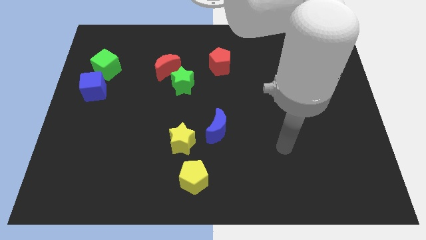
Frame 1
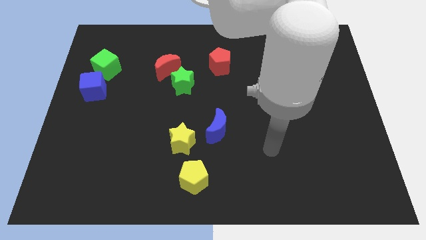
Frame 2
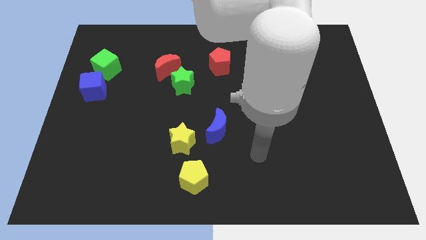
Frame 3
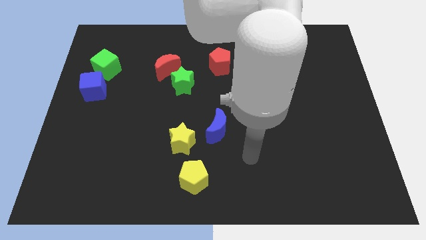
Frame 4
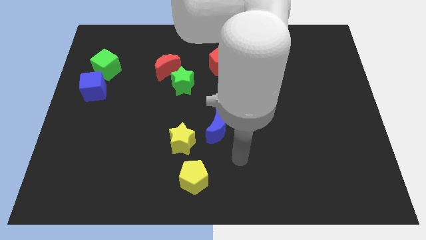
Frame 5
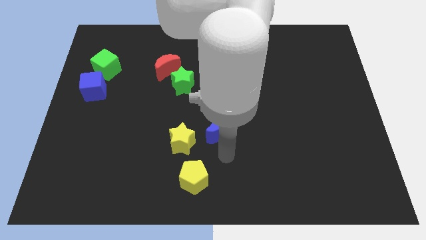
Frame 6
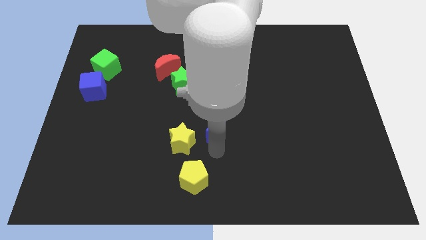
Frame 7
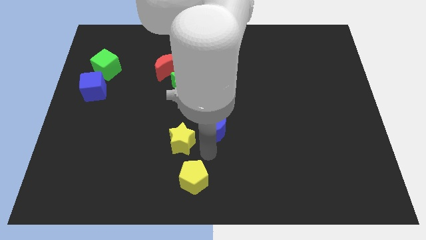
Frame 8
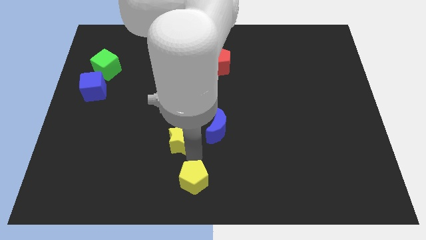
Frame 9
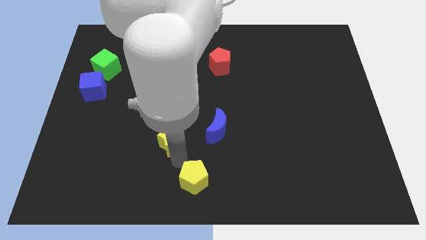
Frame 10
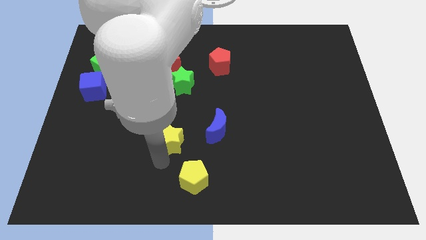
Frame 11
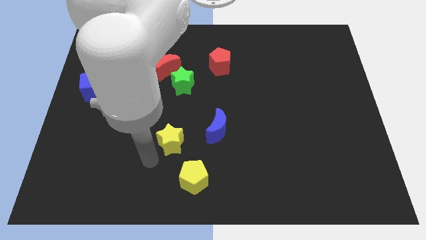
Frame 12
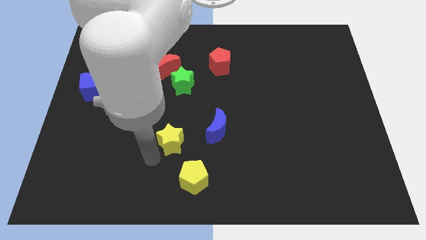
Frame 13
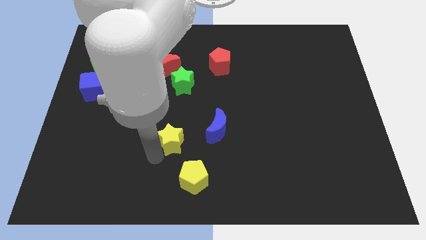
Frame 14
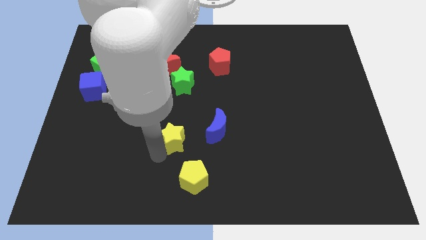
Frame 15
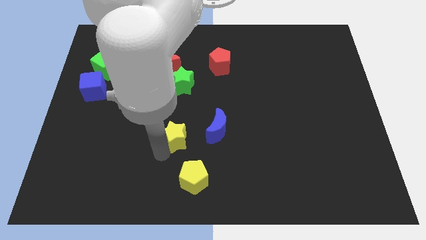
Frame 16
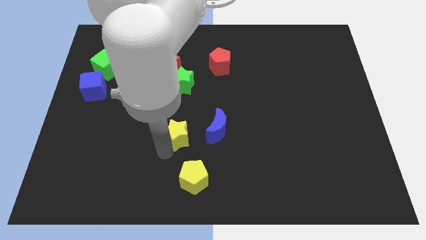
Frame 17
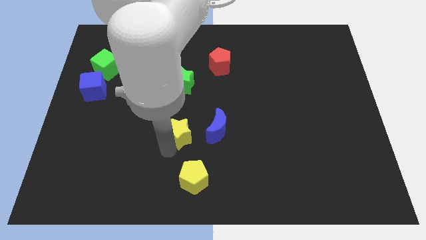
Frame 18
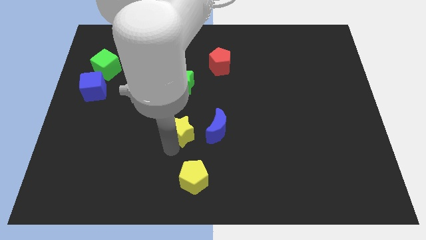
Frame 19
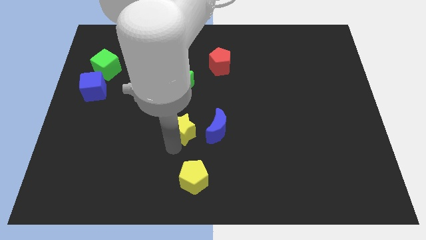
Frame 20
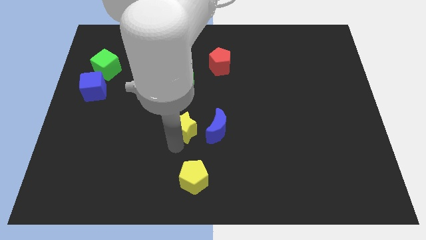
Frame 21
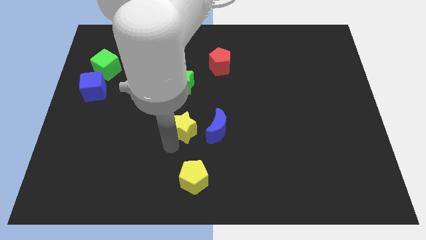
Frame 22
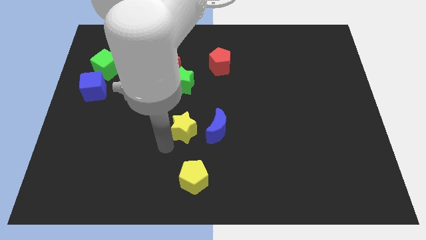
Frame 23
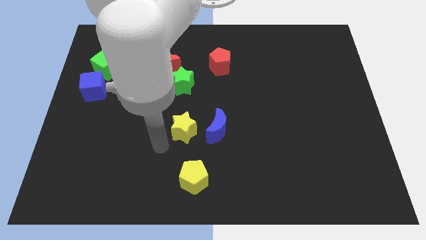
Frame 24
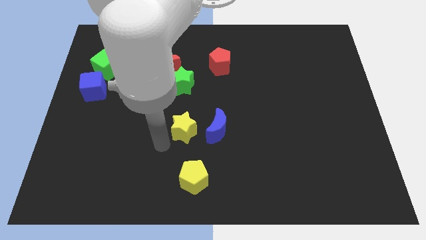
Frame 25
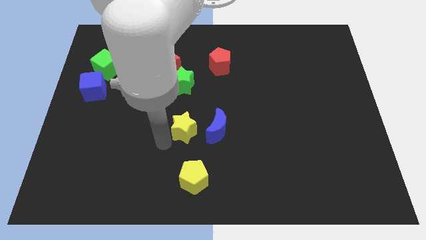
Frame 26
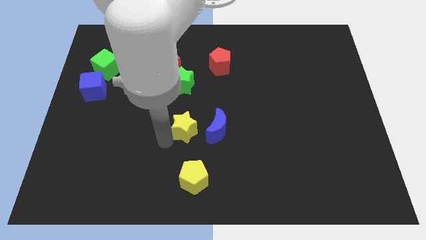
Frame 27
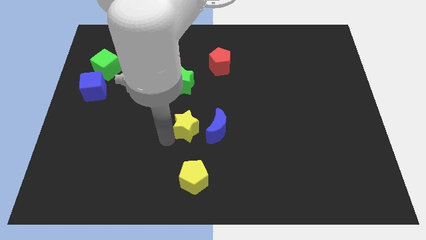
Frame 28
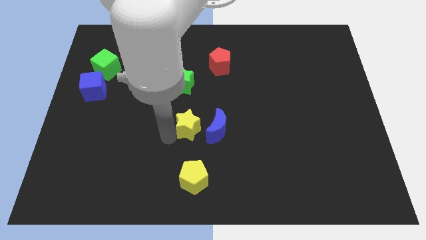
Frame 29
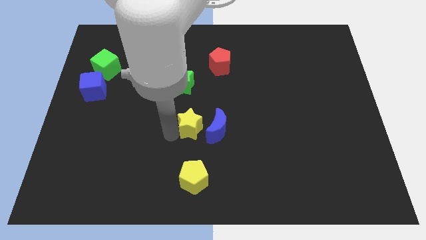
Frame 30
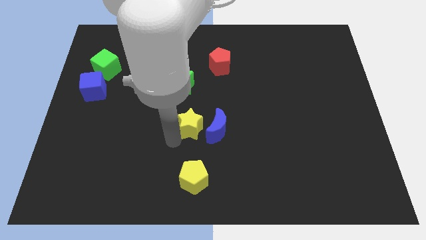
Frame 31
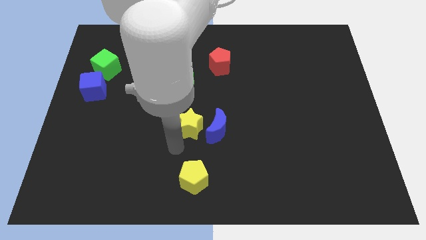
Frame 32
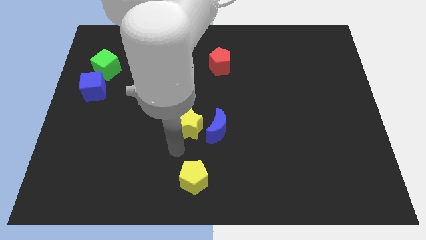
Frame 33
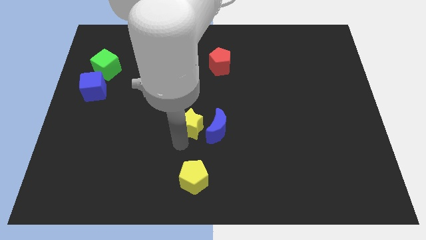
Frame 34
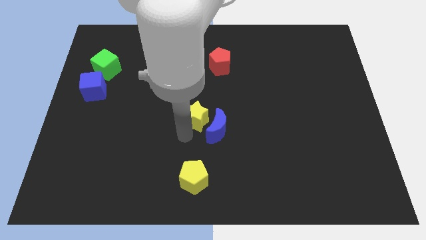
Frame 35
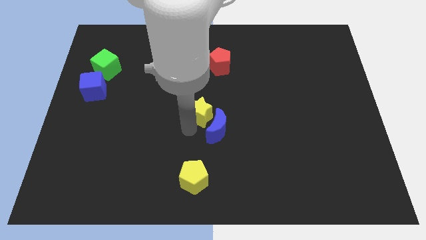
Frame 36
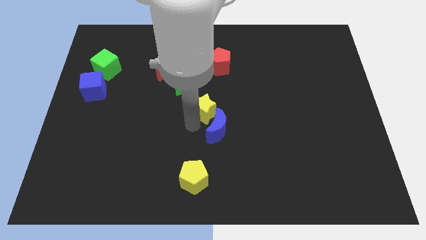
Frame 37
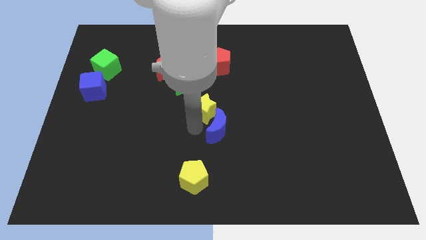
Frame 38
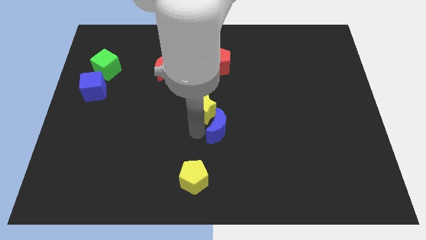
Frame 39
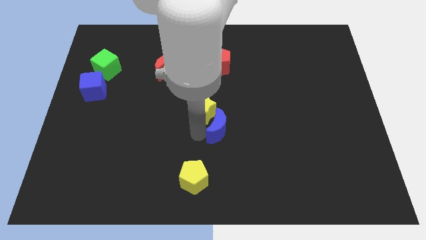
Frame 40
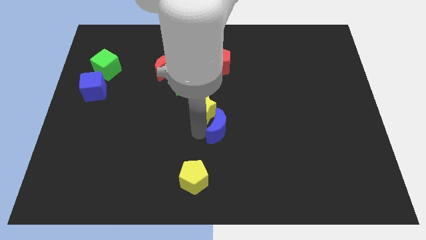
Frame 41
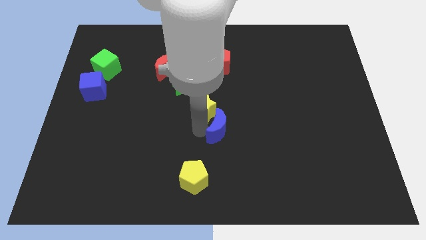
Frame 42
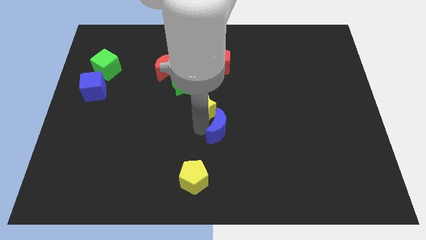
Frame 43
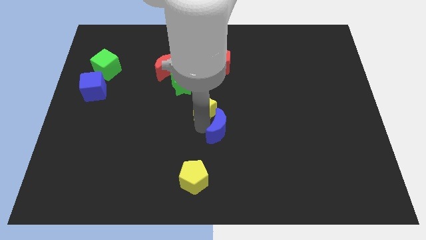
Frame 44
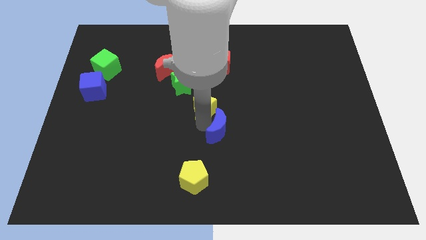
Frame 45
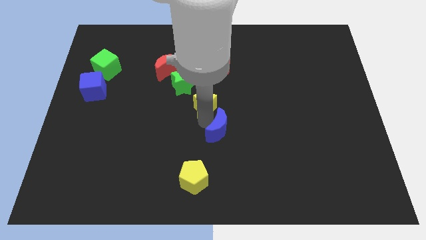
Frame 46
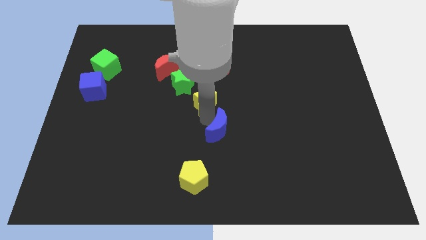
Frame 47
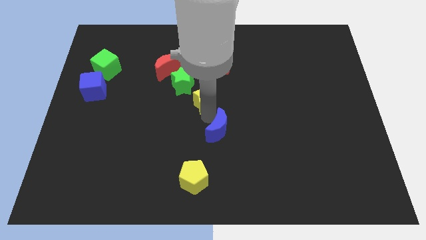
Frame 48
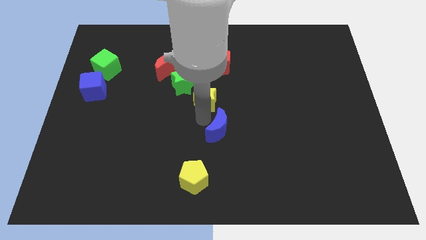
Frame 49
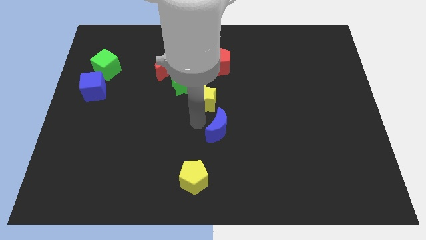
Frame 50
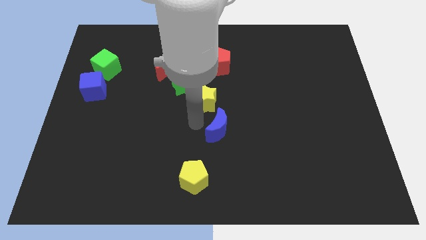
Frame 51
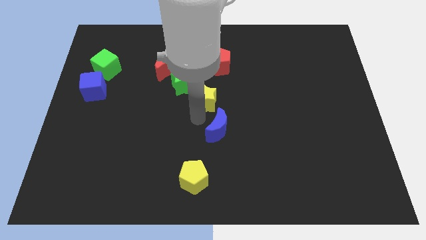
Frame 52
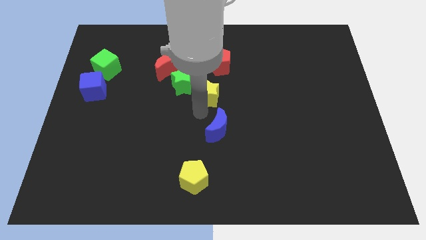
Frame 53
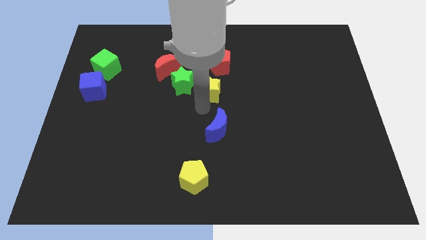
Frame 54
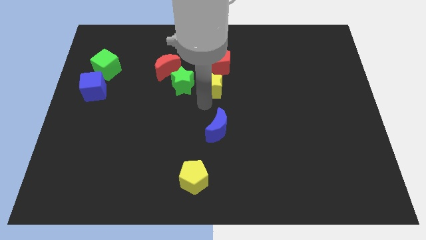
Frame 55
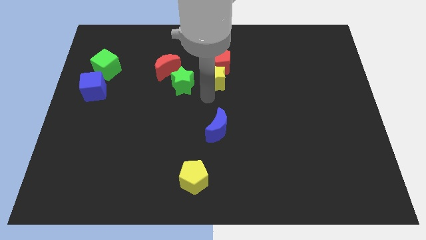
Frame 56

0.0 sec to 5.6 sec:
slide the yellow star next to the red pentagon

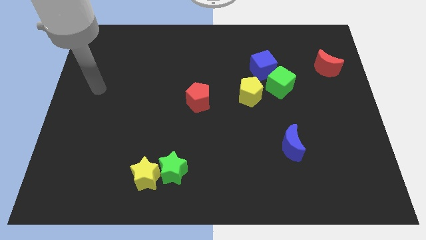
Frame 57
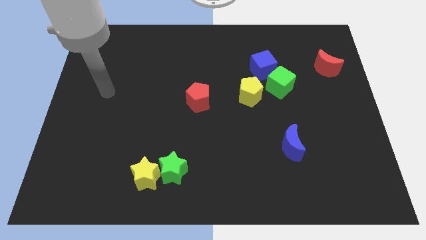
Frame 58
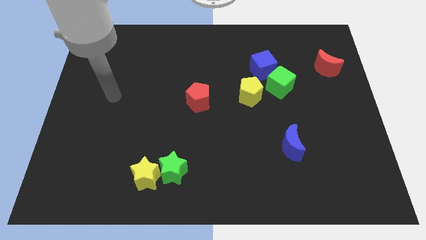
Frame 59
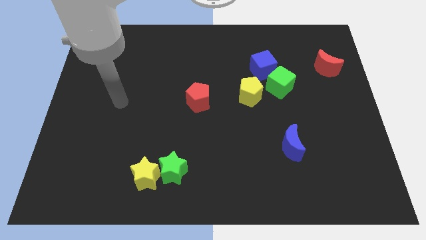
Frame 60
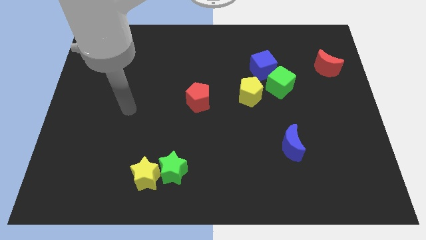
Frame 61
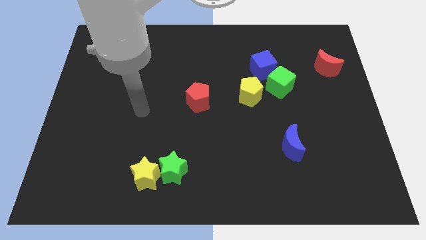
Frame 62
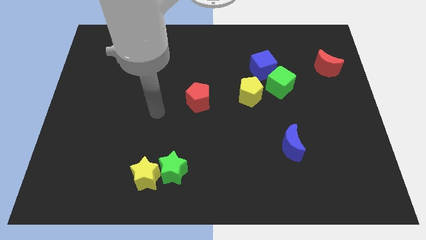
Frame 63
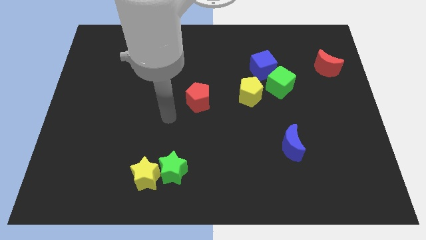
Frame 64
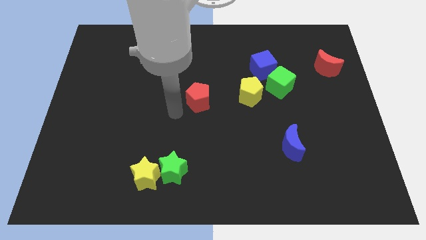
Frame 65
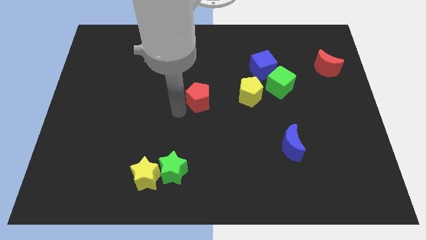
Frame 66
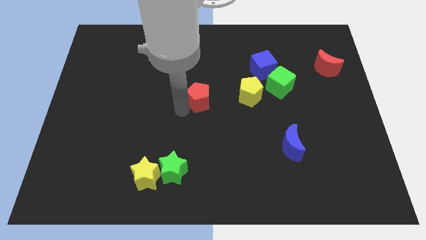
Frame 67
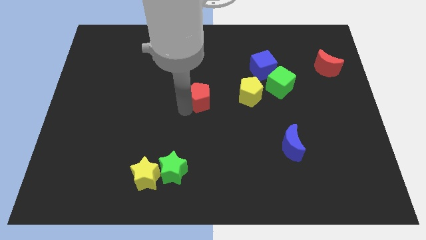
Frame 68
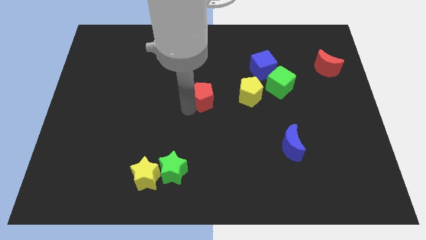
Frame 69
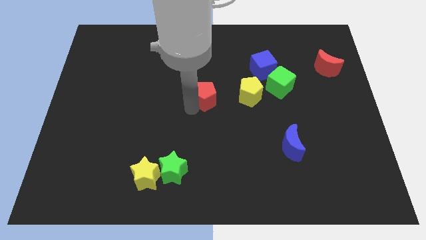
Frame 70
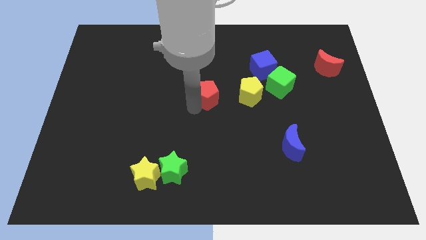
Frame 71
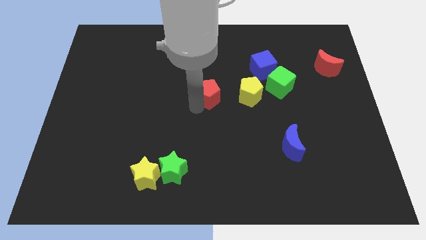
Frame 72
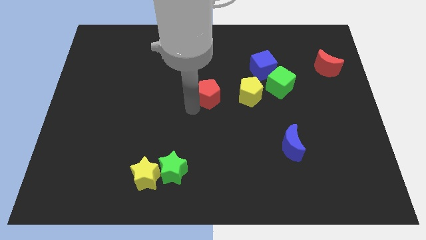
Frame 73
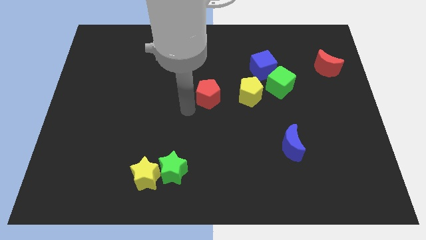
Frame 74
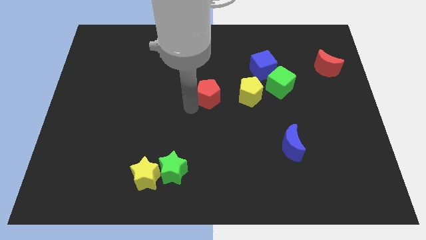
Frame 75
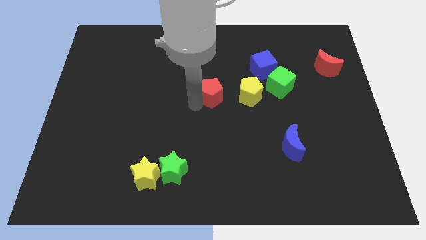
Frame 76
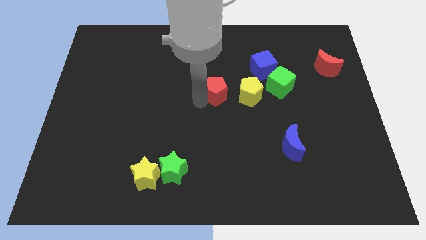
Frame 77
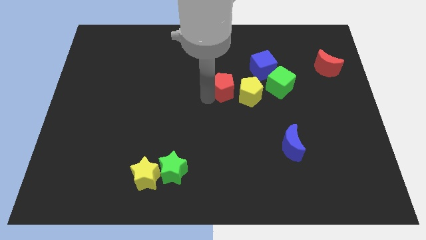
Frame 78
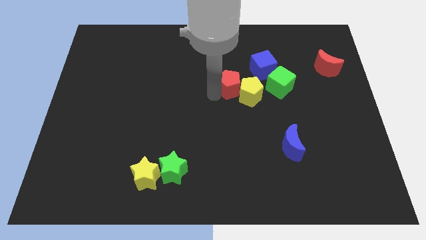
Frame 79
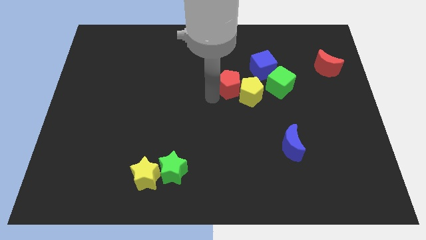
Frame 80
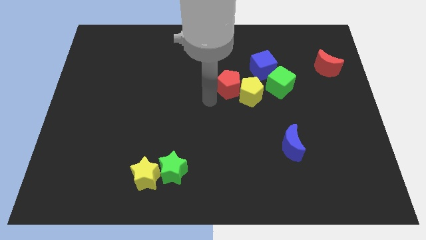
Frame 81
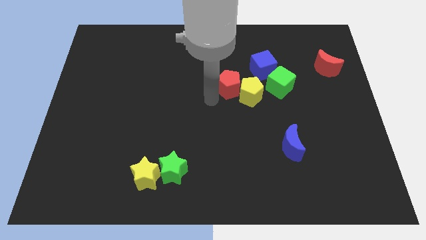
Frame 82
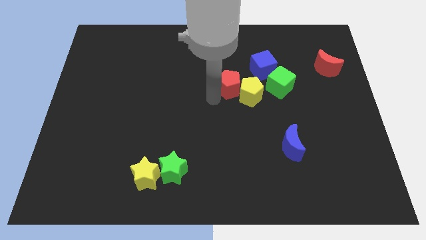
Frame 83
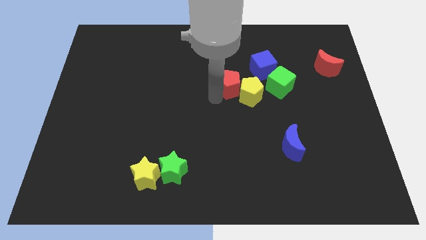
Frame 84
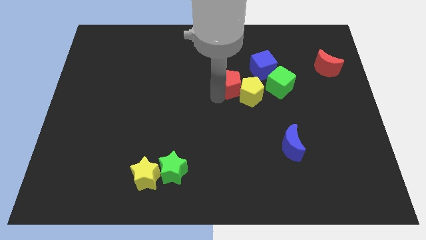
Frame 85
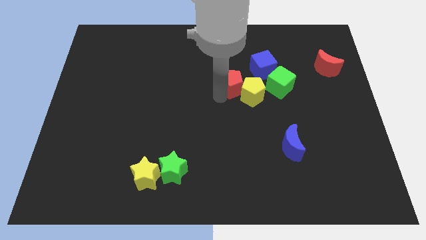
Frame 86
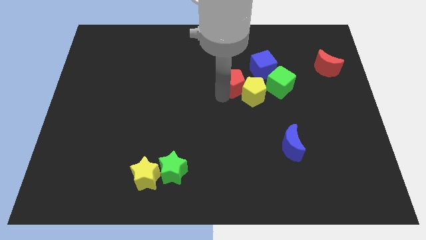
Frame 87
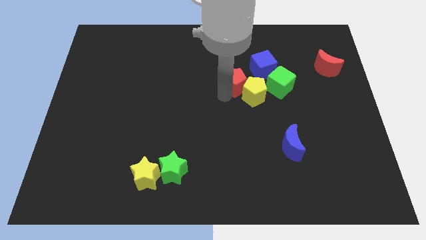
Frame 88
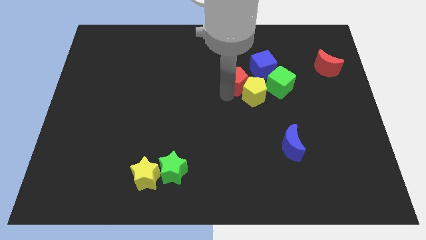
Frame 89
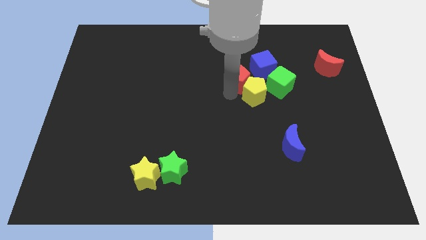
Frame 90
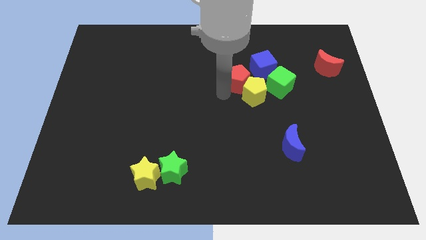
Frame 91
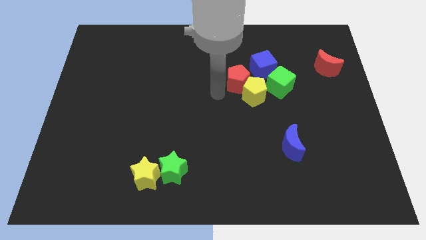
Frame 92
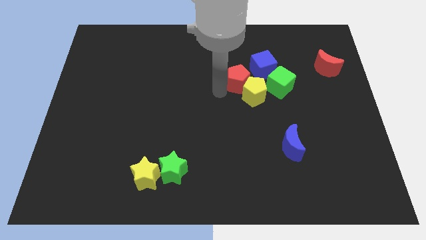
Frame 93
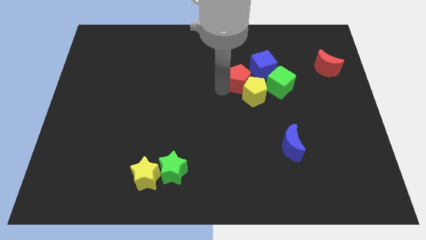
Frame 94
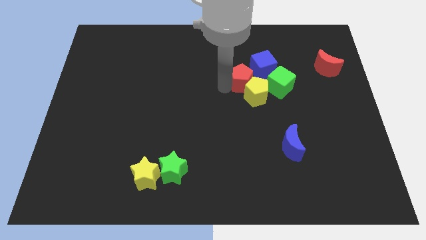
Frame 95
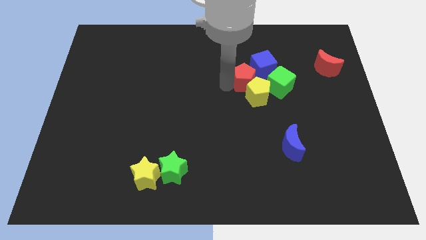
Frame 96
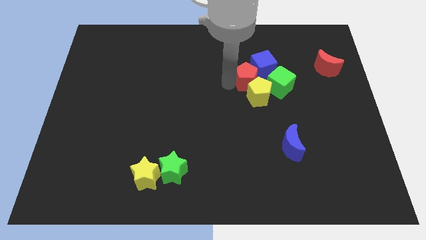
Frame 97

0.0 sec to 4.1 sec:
push the red pentagon to the blue cube
